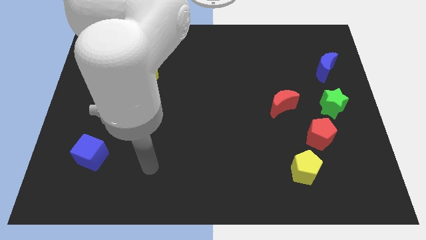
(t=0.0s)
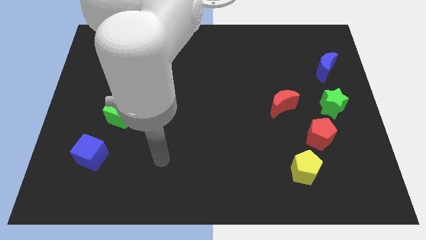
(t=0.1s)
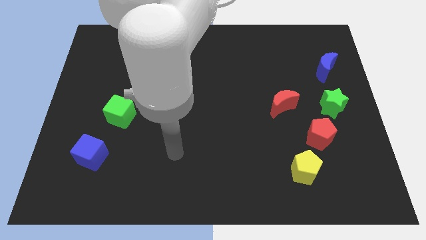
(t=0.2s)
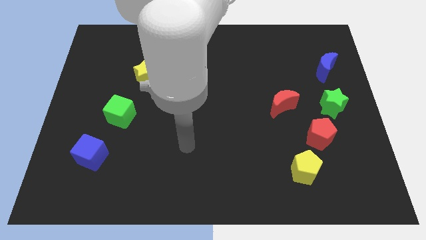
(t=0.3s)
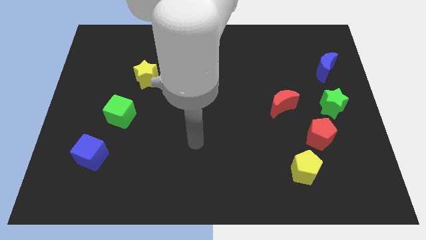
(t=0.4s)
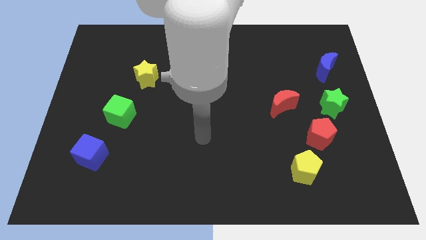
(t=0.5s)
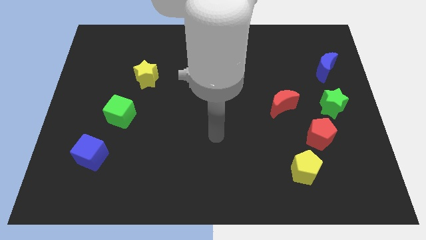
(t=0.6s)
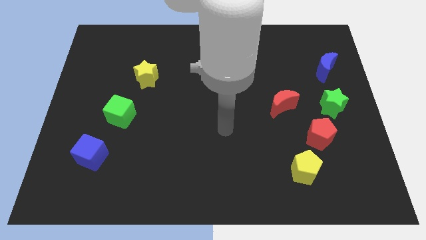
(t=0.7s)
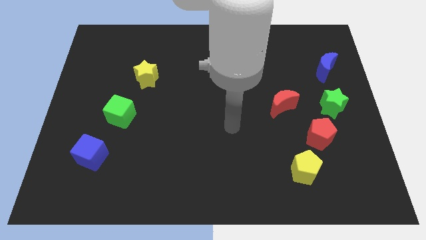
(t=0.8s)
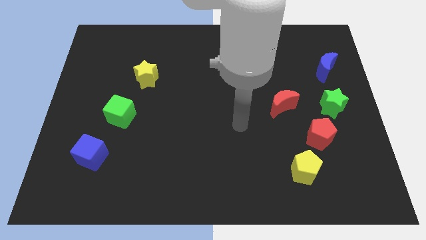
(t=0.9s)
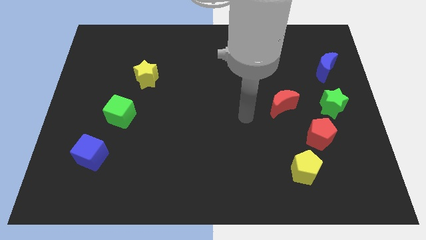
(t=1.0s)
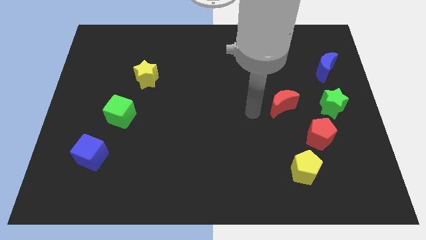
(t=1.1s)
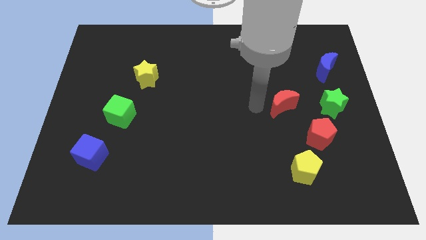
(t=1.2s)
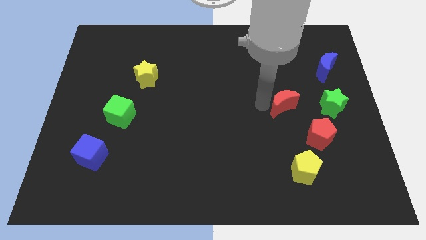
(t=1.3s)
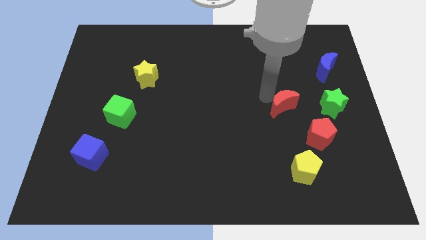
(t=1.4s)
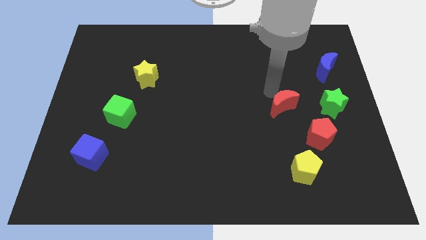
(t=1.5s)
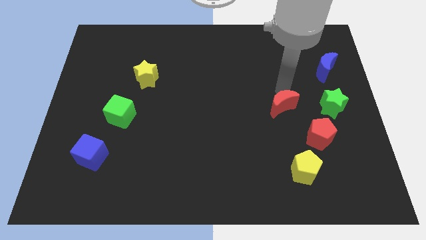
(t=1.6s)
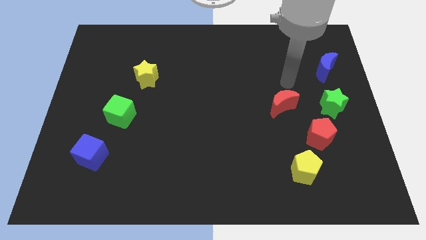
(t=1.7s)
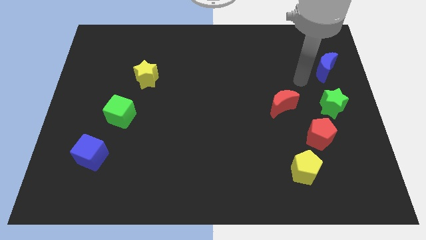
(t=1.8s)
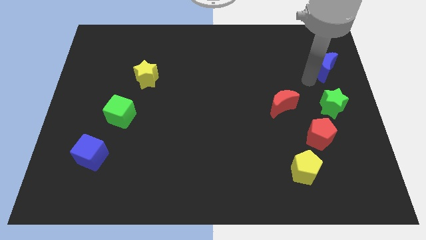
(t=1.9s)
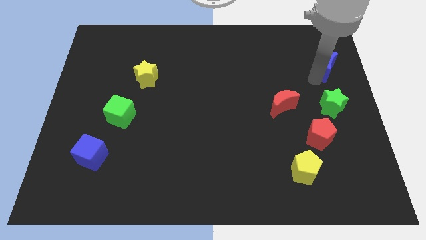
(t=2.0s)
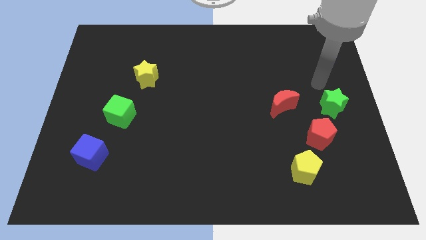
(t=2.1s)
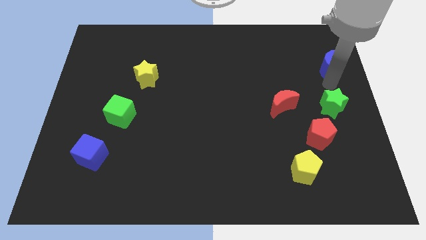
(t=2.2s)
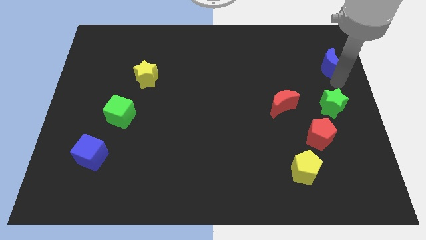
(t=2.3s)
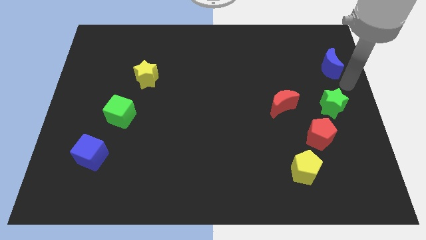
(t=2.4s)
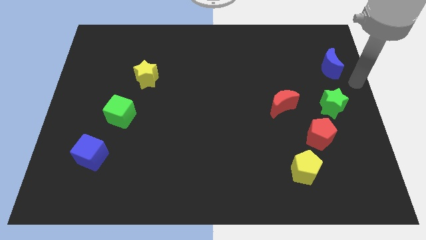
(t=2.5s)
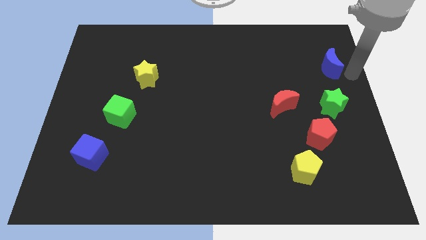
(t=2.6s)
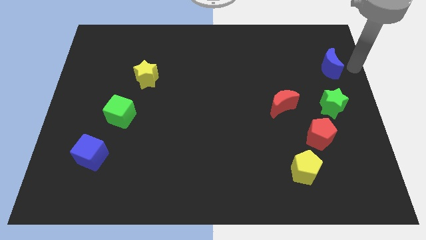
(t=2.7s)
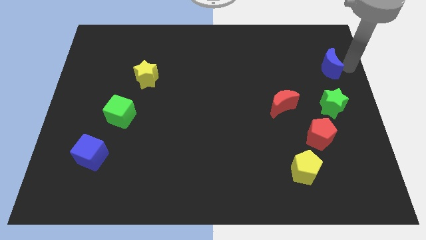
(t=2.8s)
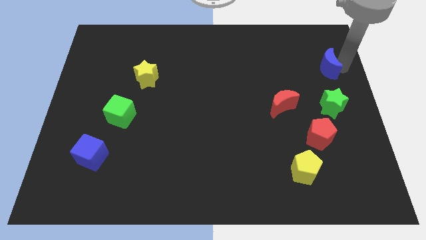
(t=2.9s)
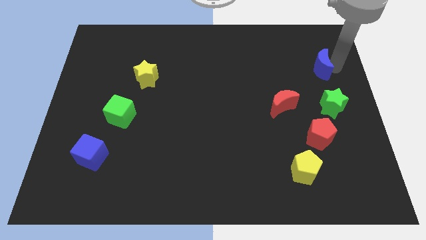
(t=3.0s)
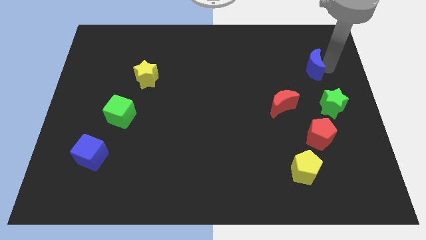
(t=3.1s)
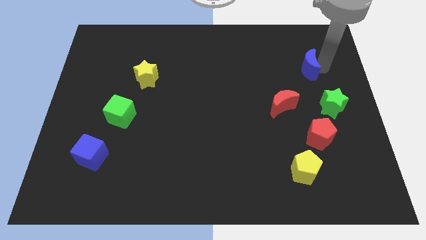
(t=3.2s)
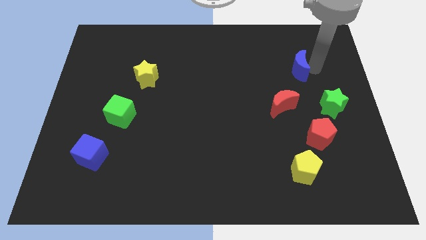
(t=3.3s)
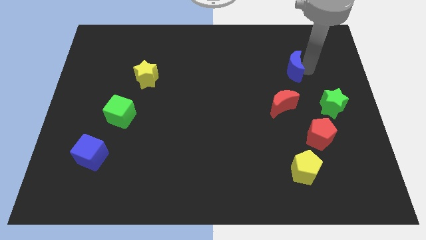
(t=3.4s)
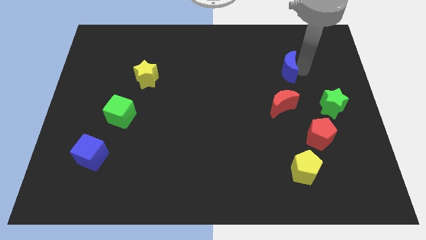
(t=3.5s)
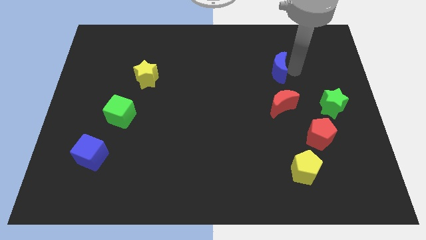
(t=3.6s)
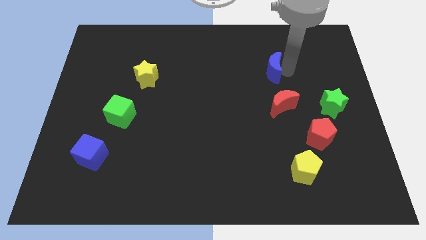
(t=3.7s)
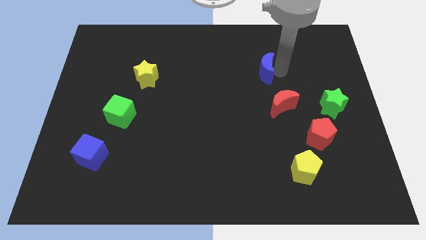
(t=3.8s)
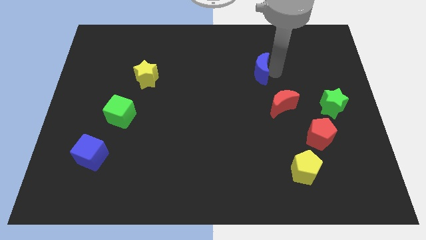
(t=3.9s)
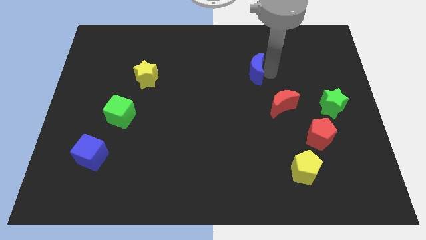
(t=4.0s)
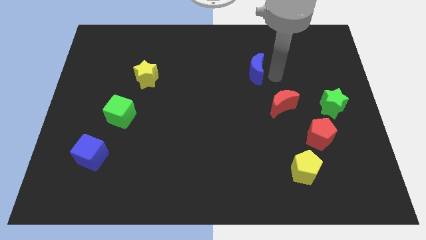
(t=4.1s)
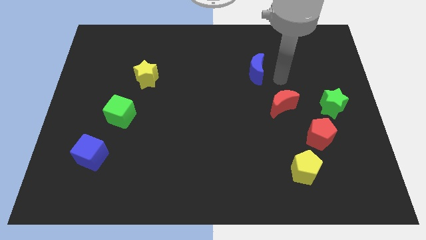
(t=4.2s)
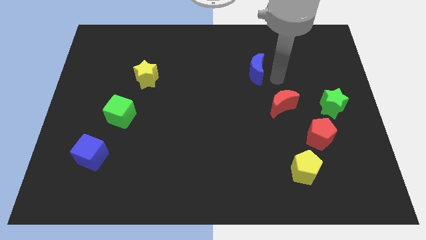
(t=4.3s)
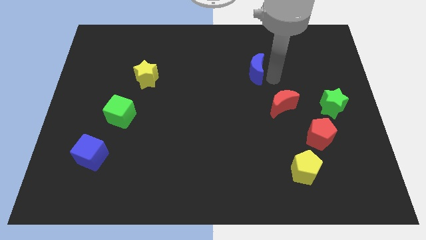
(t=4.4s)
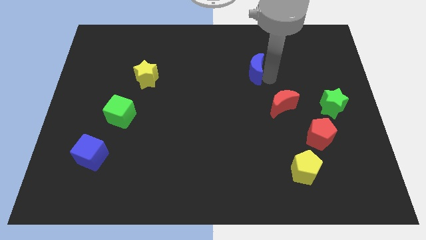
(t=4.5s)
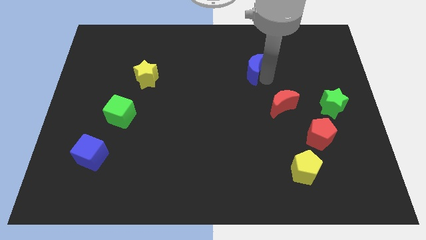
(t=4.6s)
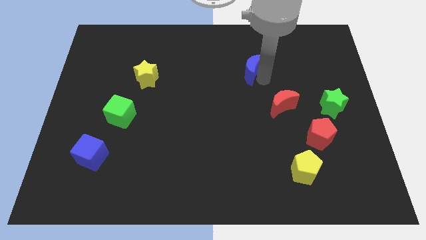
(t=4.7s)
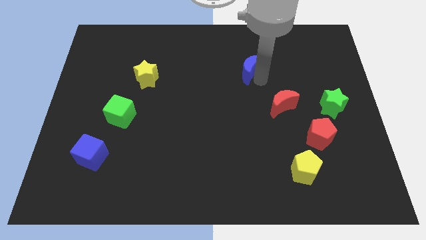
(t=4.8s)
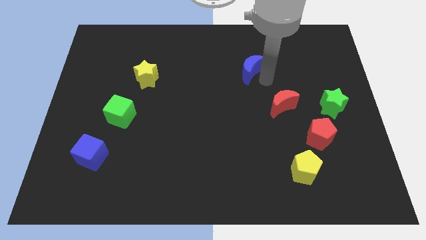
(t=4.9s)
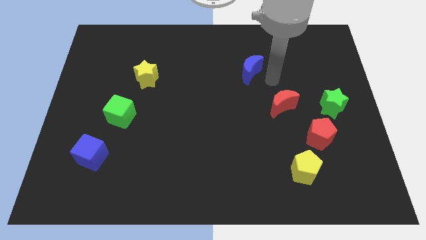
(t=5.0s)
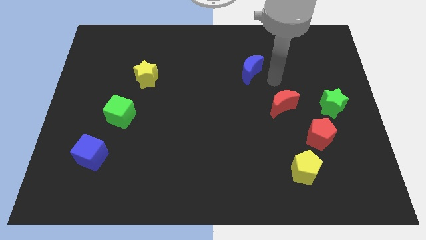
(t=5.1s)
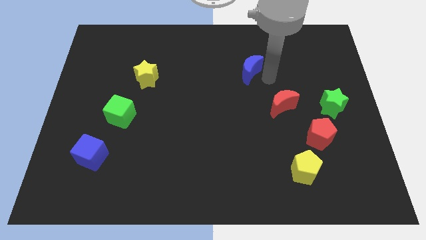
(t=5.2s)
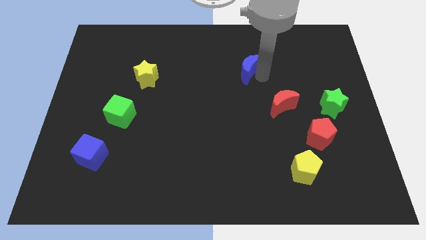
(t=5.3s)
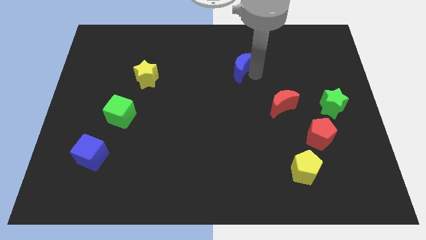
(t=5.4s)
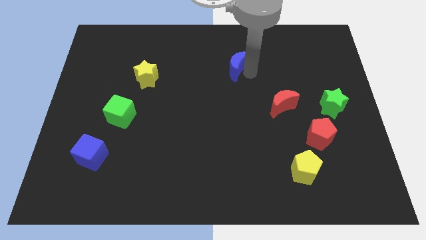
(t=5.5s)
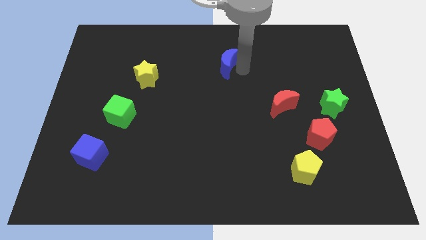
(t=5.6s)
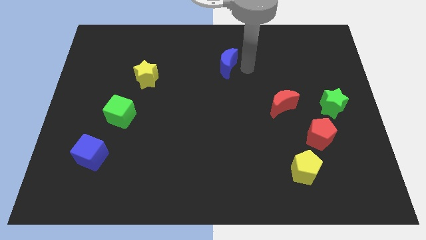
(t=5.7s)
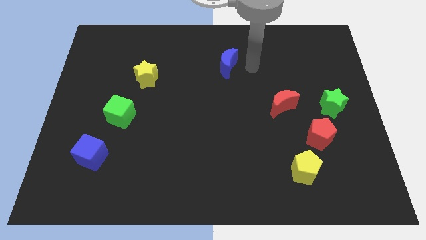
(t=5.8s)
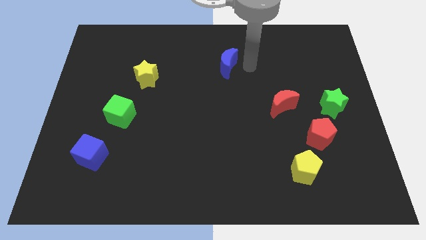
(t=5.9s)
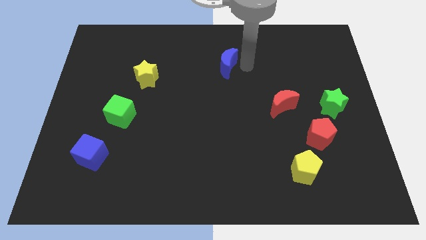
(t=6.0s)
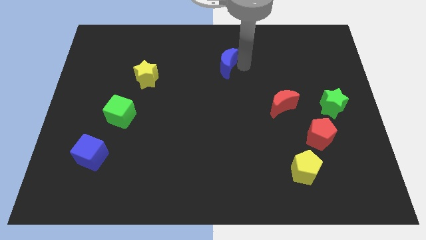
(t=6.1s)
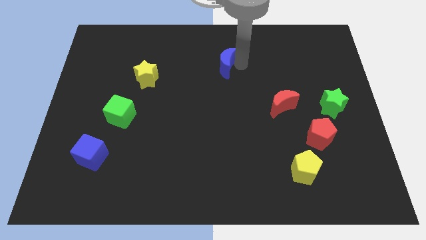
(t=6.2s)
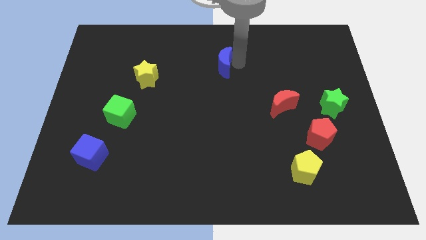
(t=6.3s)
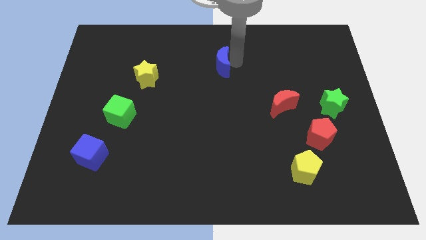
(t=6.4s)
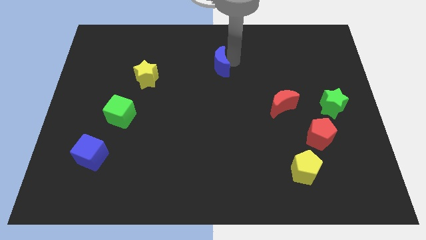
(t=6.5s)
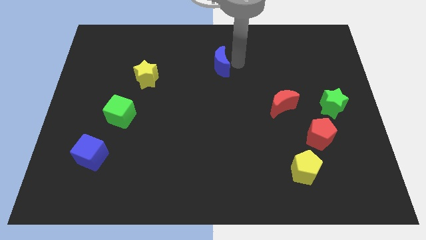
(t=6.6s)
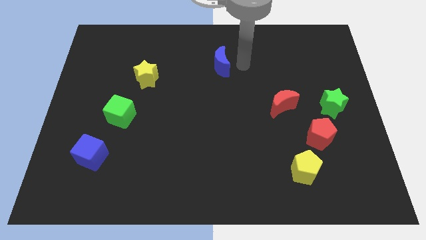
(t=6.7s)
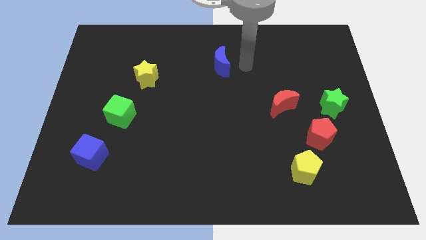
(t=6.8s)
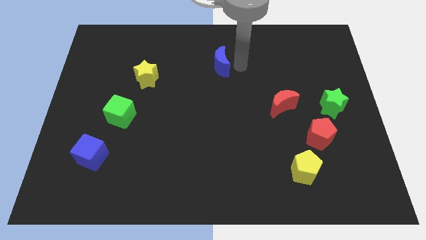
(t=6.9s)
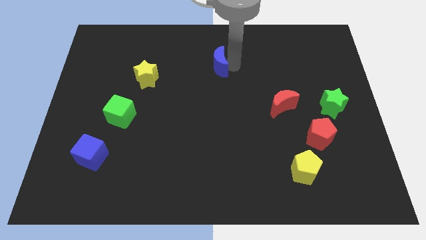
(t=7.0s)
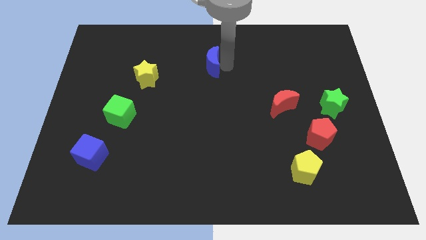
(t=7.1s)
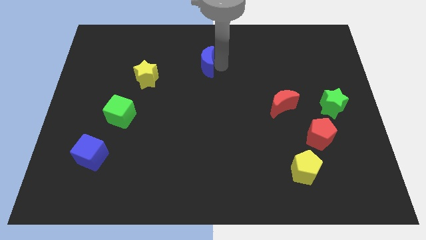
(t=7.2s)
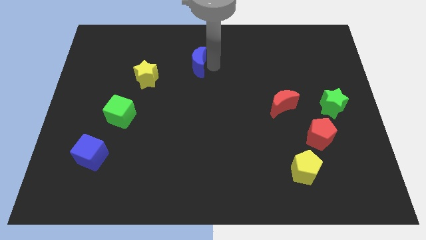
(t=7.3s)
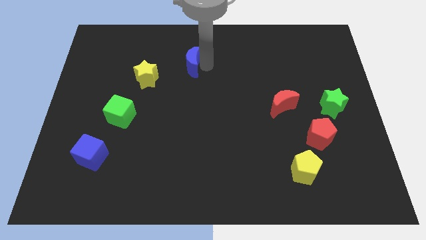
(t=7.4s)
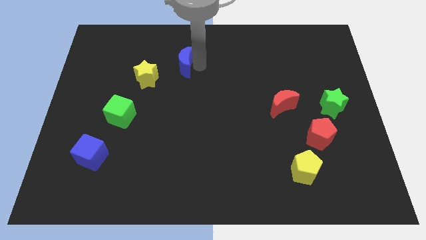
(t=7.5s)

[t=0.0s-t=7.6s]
slide the blue moon to the top right side of the yellow star

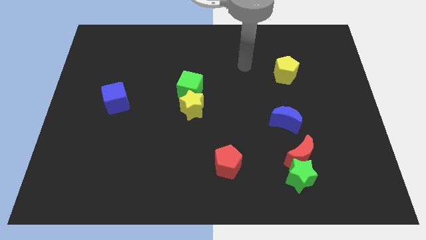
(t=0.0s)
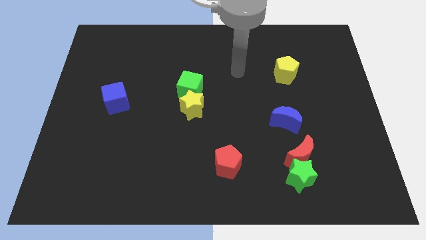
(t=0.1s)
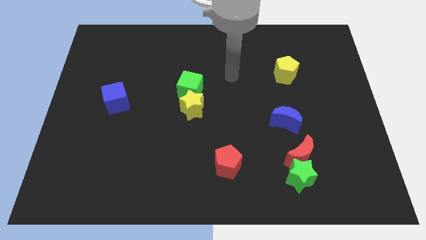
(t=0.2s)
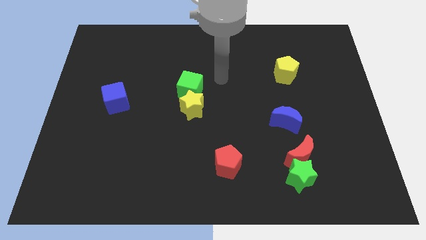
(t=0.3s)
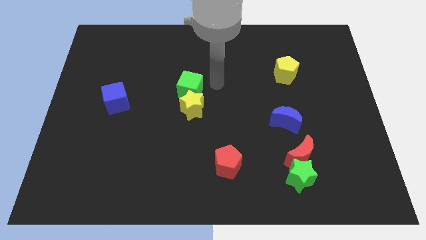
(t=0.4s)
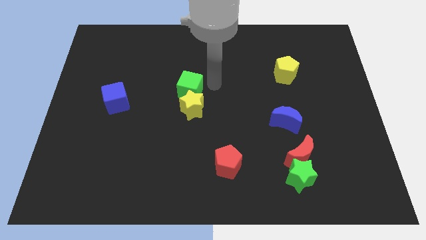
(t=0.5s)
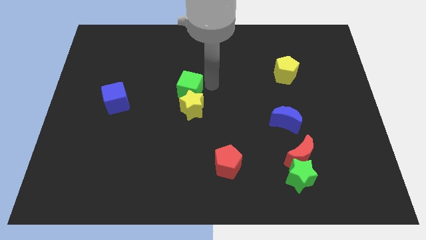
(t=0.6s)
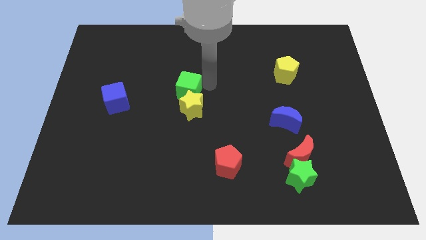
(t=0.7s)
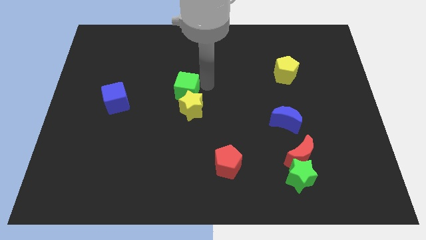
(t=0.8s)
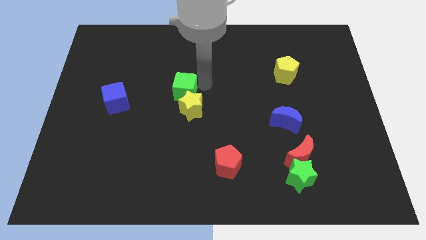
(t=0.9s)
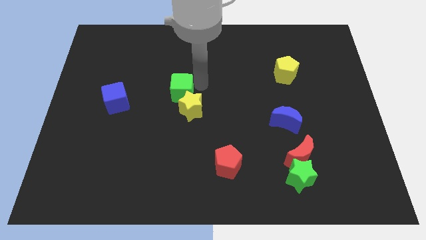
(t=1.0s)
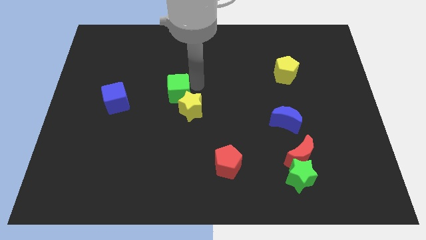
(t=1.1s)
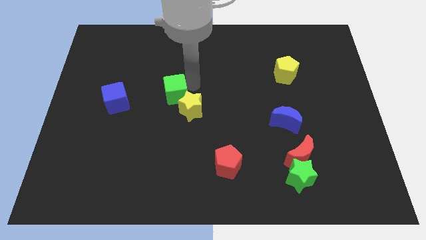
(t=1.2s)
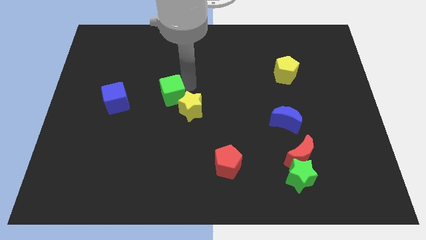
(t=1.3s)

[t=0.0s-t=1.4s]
put the green cube just left of the yellow star
